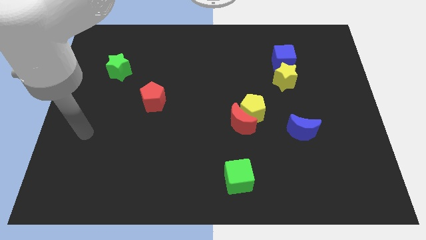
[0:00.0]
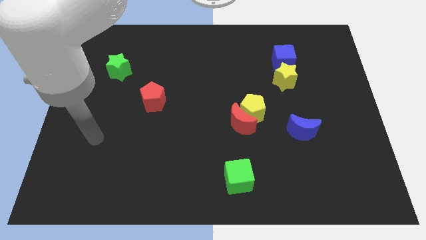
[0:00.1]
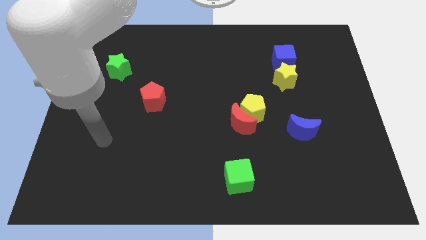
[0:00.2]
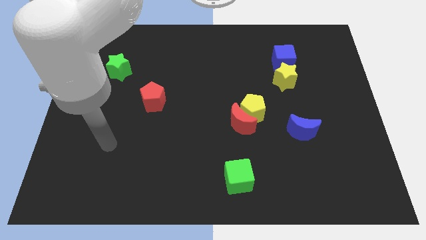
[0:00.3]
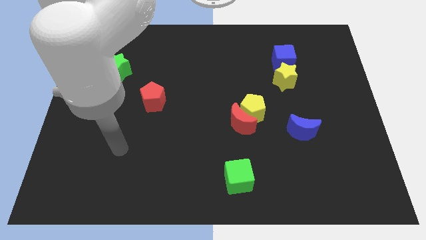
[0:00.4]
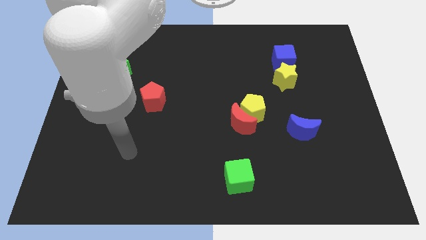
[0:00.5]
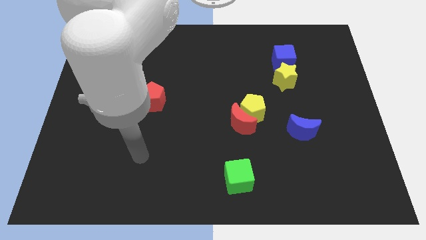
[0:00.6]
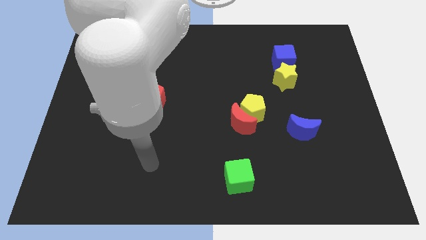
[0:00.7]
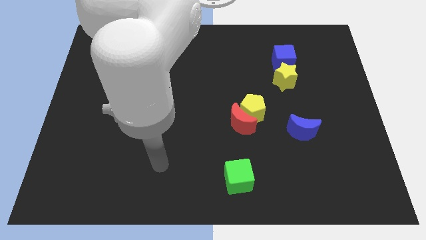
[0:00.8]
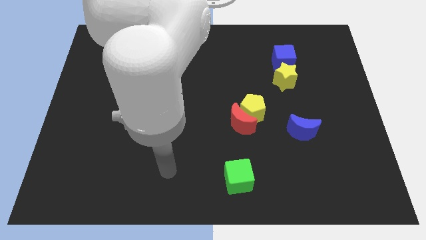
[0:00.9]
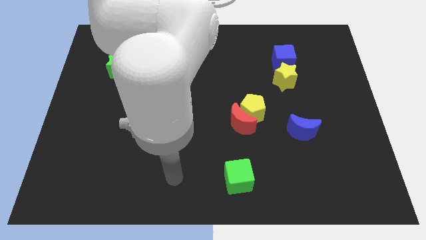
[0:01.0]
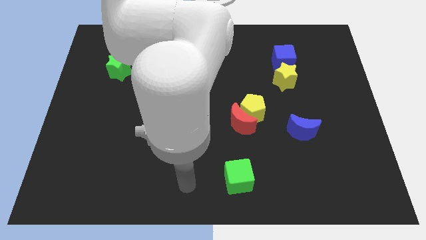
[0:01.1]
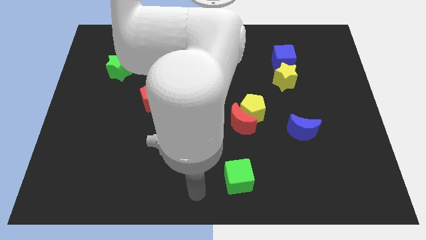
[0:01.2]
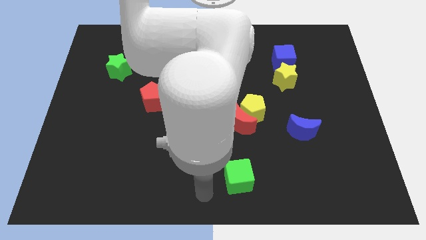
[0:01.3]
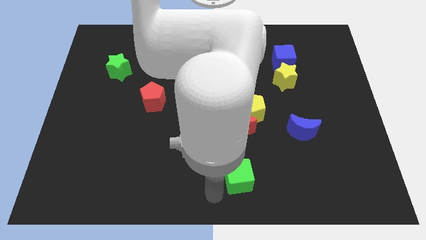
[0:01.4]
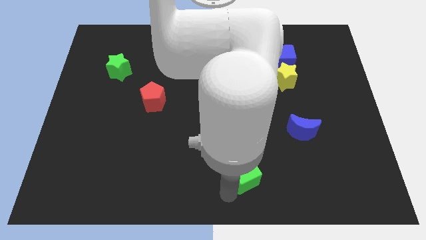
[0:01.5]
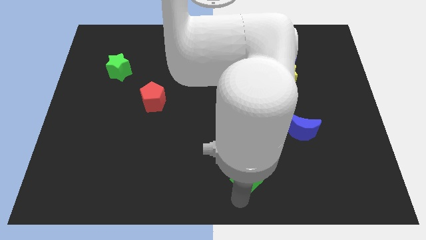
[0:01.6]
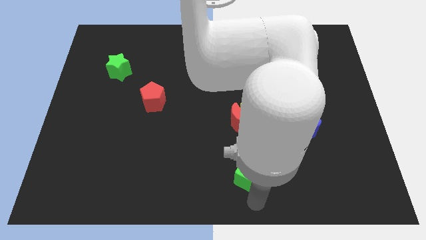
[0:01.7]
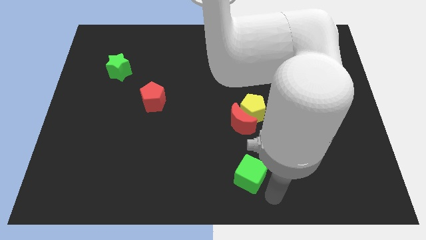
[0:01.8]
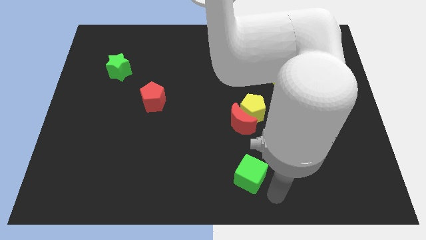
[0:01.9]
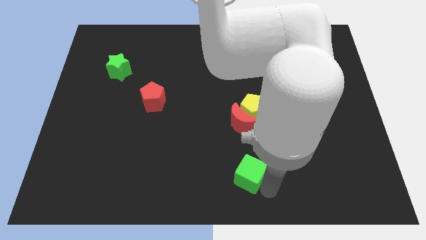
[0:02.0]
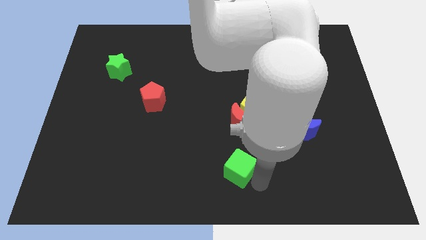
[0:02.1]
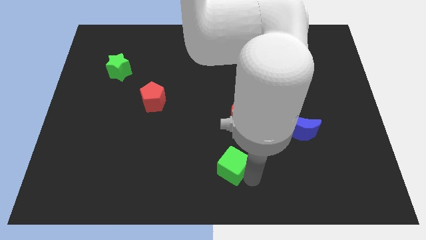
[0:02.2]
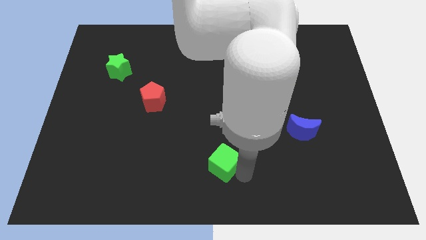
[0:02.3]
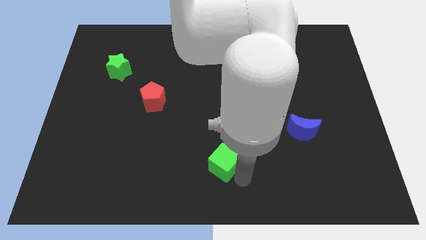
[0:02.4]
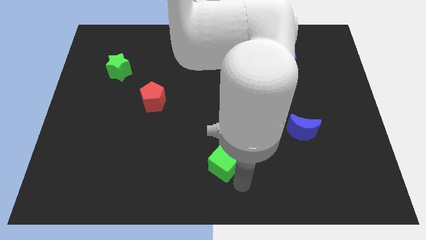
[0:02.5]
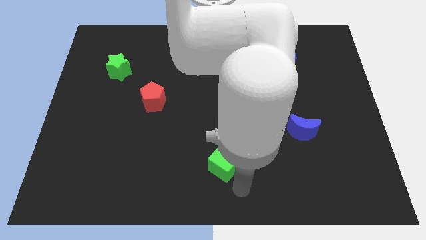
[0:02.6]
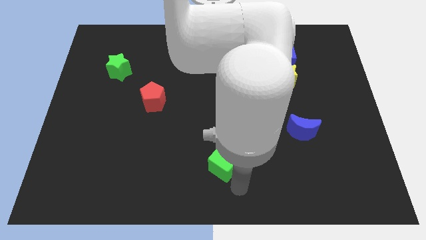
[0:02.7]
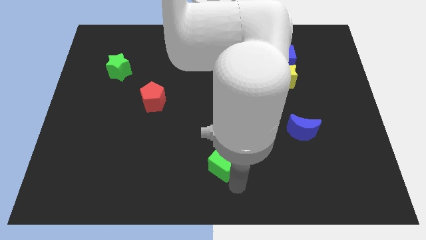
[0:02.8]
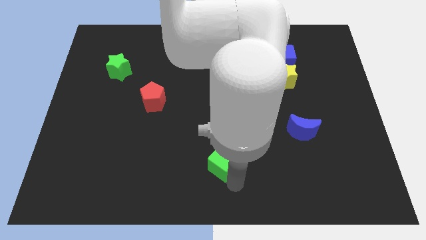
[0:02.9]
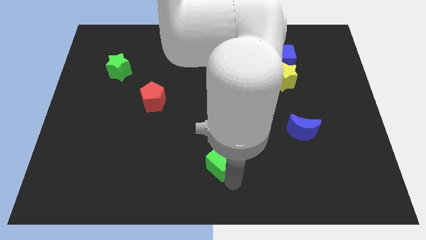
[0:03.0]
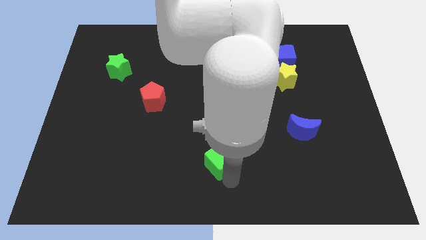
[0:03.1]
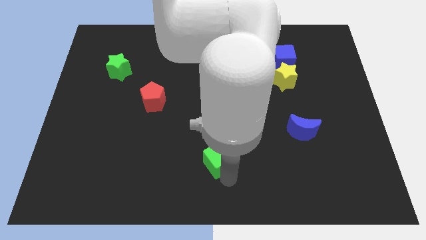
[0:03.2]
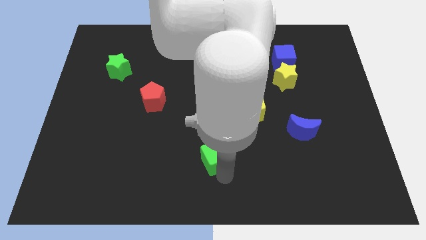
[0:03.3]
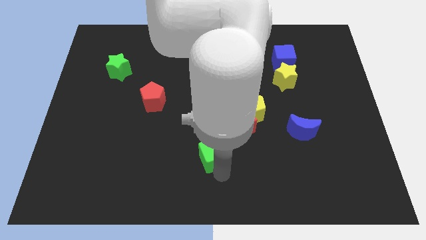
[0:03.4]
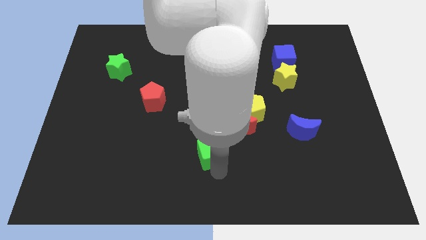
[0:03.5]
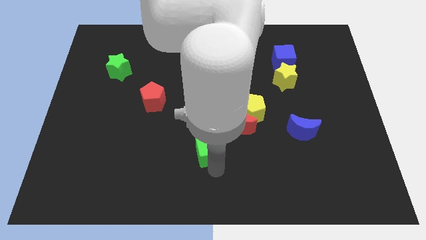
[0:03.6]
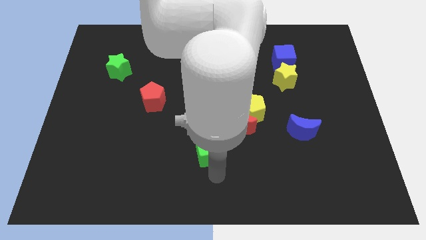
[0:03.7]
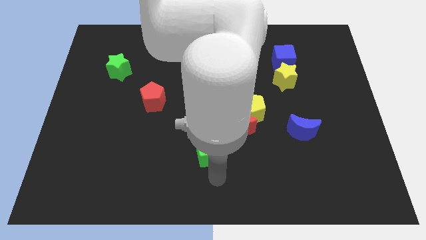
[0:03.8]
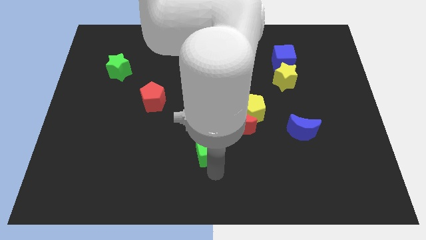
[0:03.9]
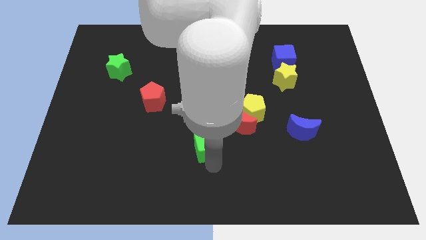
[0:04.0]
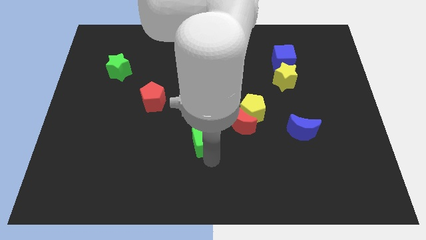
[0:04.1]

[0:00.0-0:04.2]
push the green cube up a little

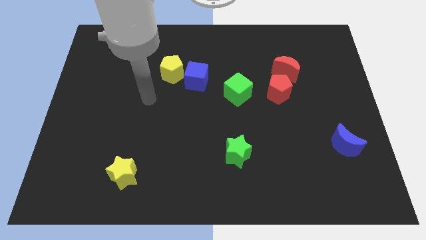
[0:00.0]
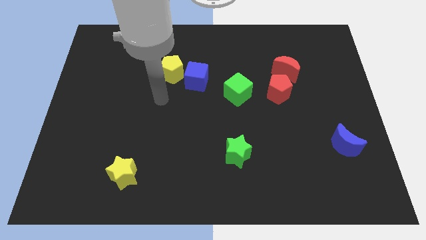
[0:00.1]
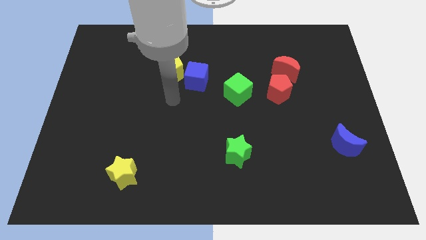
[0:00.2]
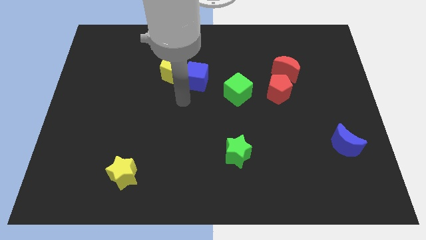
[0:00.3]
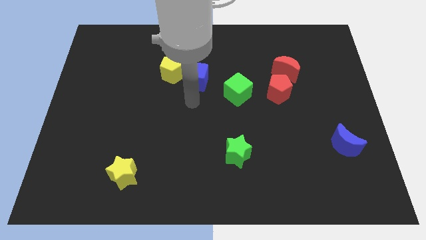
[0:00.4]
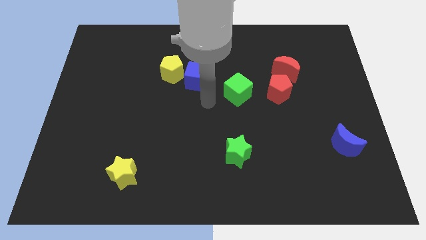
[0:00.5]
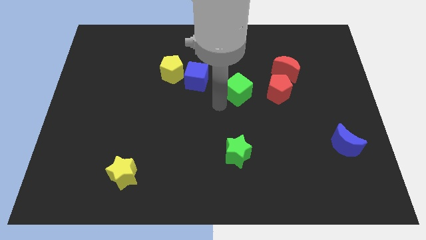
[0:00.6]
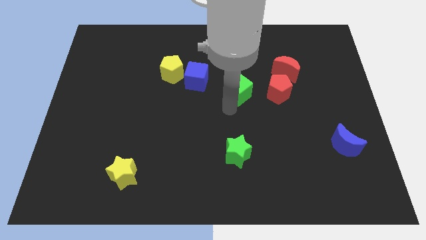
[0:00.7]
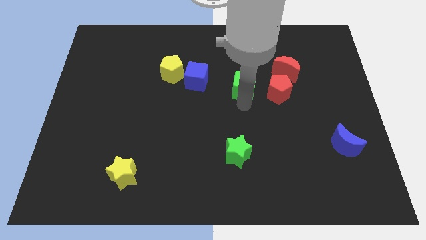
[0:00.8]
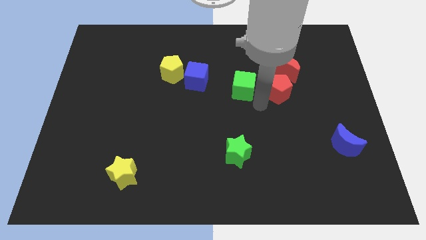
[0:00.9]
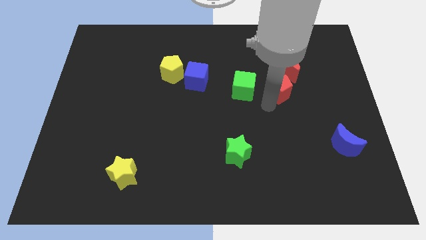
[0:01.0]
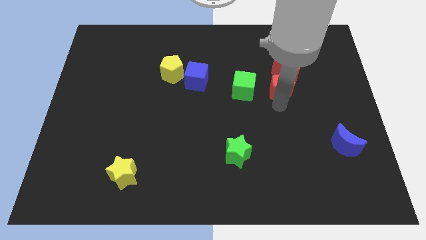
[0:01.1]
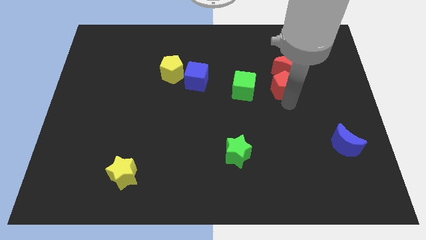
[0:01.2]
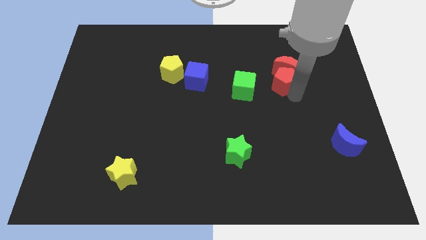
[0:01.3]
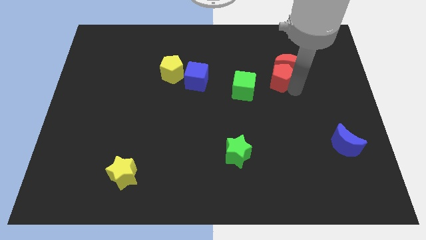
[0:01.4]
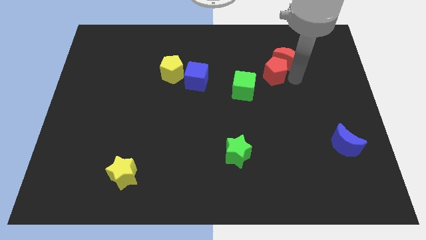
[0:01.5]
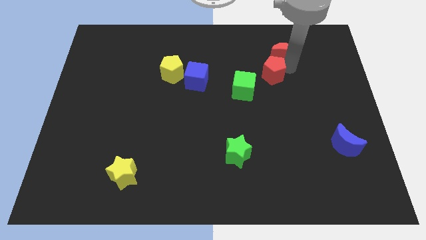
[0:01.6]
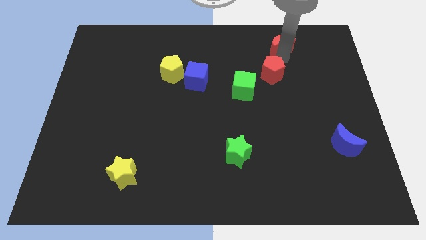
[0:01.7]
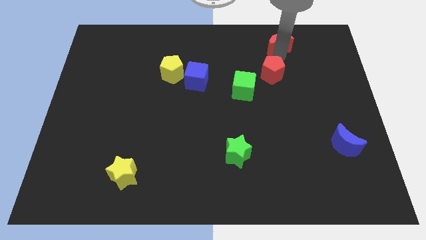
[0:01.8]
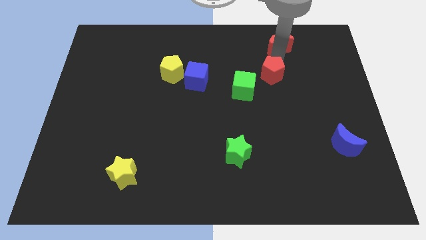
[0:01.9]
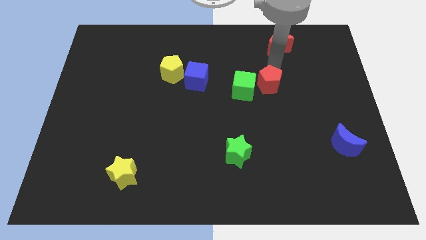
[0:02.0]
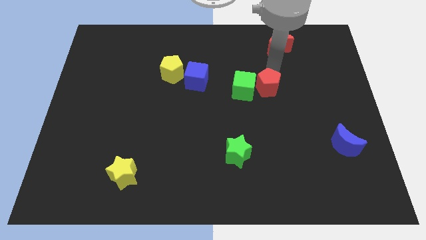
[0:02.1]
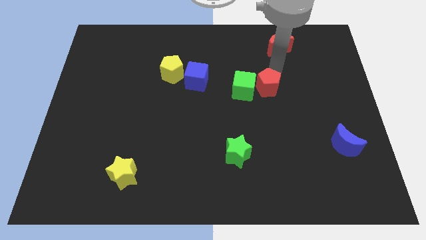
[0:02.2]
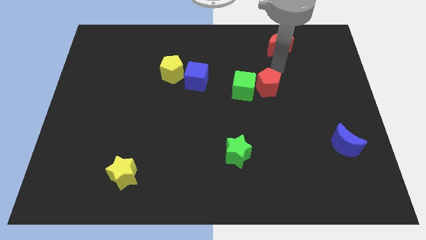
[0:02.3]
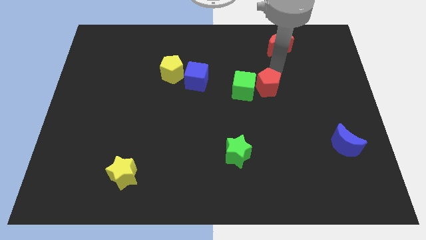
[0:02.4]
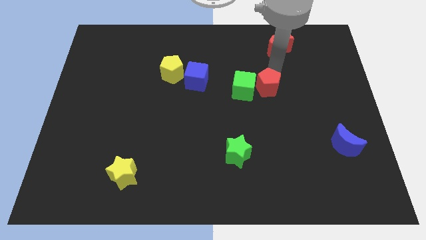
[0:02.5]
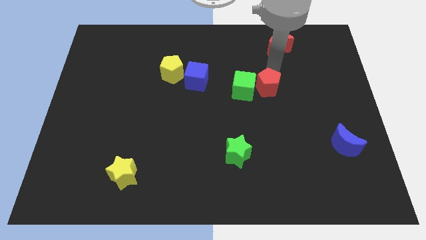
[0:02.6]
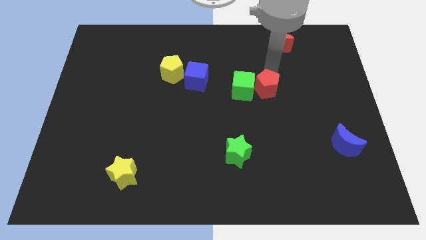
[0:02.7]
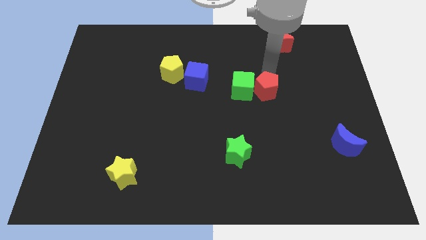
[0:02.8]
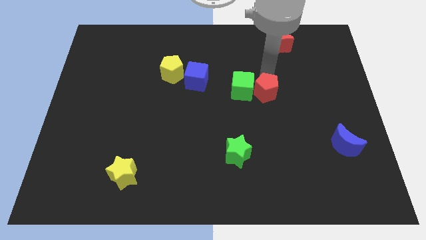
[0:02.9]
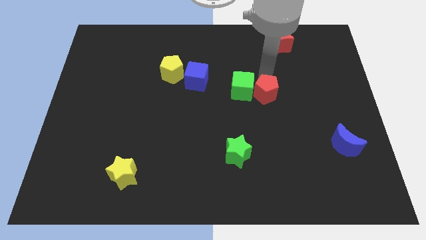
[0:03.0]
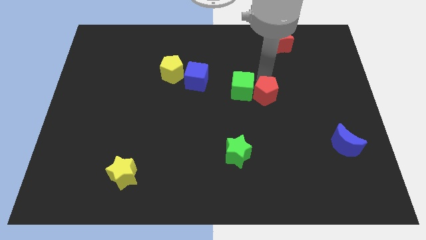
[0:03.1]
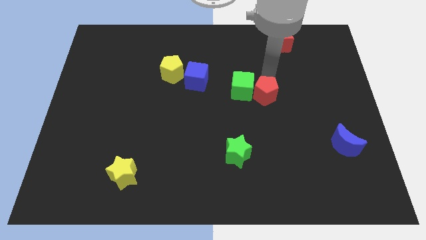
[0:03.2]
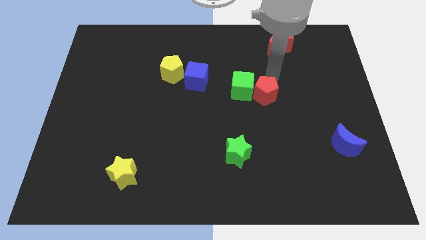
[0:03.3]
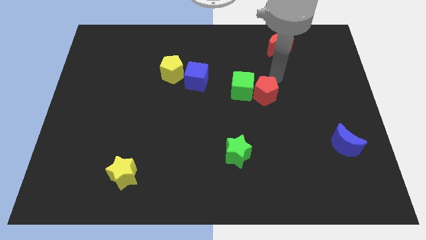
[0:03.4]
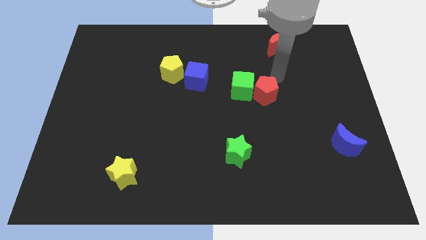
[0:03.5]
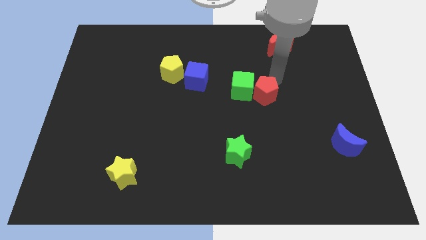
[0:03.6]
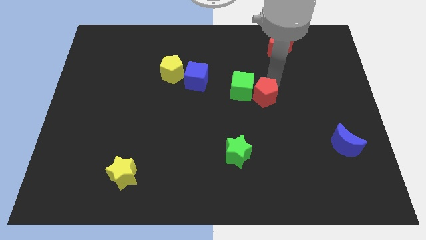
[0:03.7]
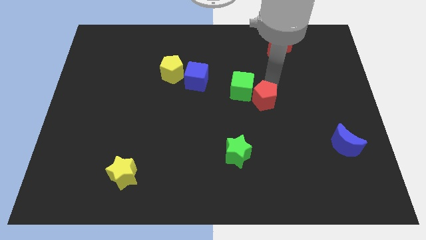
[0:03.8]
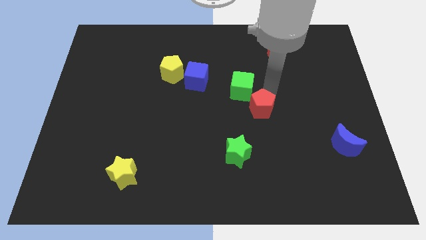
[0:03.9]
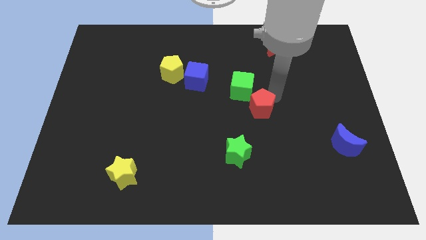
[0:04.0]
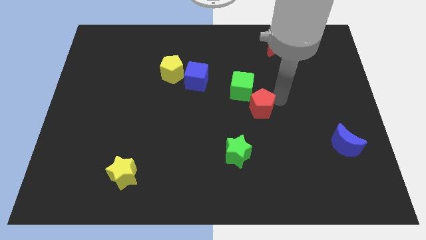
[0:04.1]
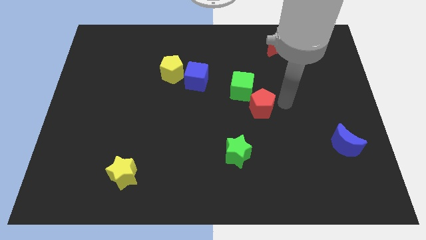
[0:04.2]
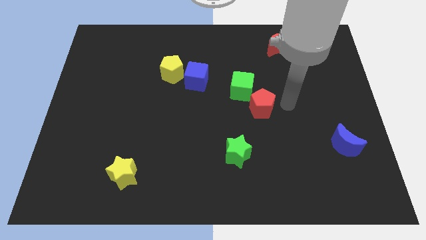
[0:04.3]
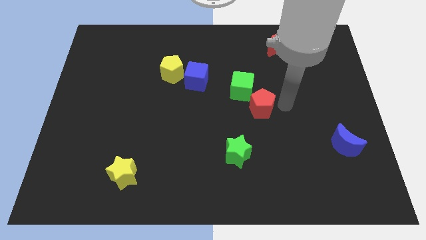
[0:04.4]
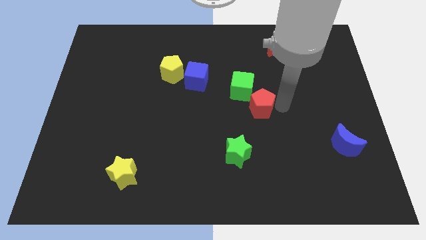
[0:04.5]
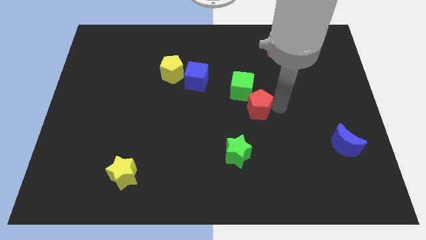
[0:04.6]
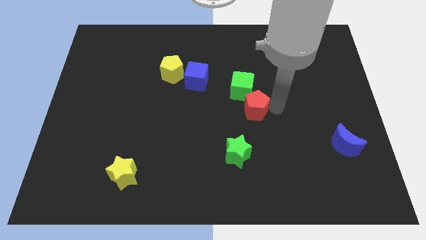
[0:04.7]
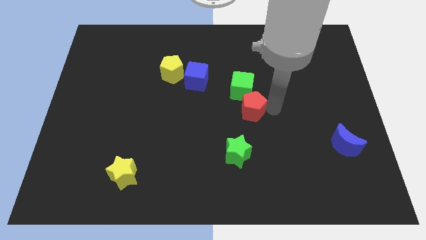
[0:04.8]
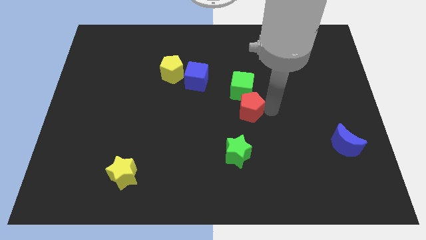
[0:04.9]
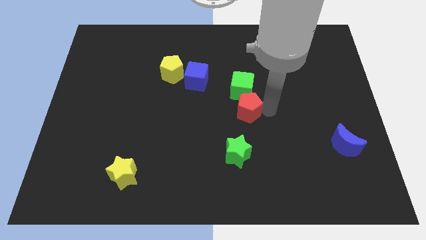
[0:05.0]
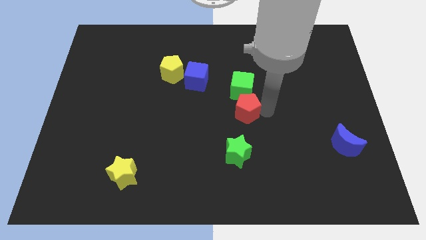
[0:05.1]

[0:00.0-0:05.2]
move the red pentagon left a little bit
